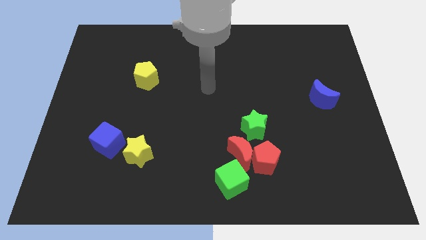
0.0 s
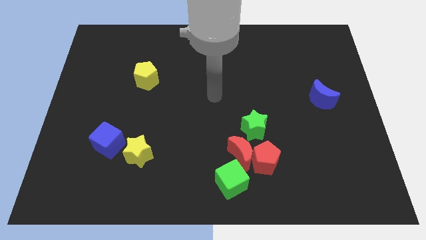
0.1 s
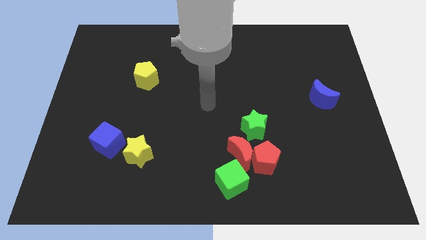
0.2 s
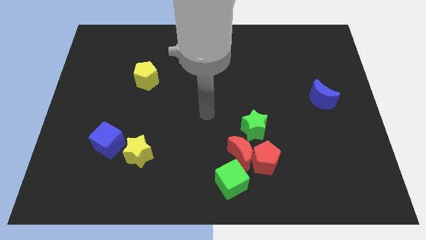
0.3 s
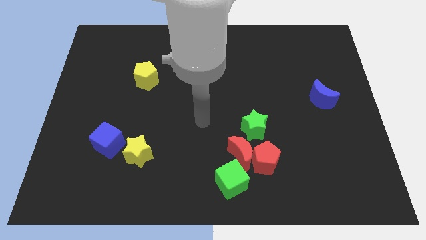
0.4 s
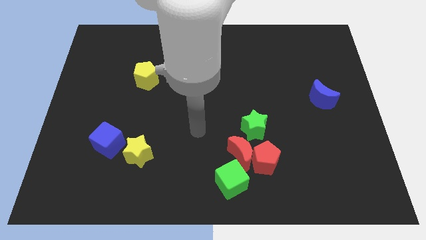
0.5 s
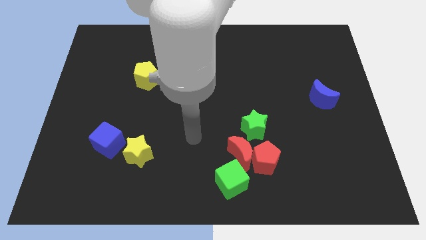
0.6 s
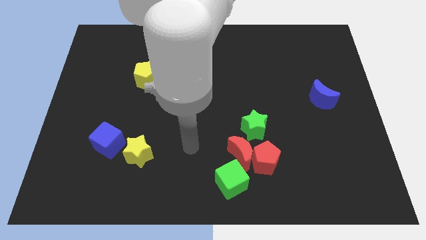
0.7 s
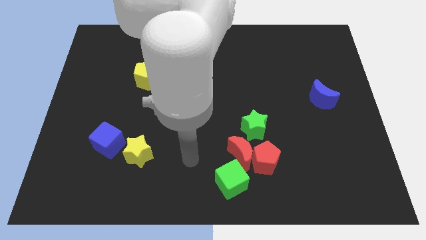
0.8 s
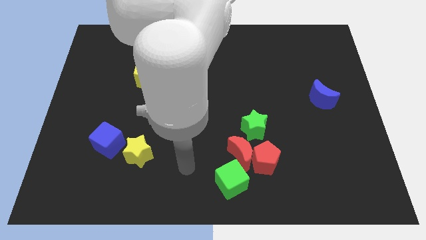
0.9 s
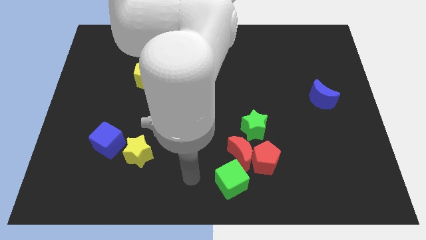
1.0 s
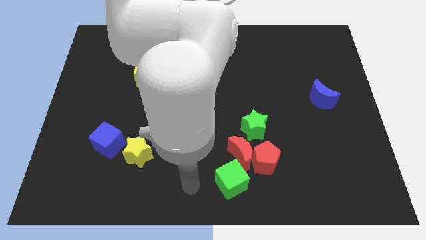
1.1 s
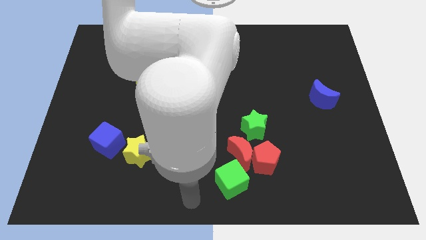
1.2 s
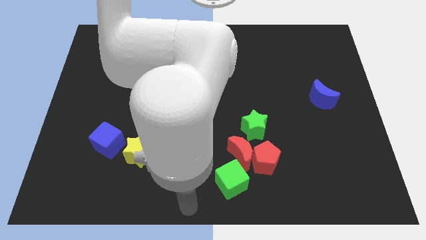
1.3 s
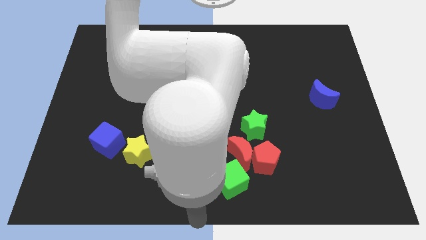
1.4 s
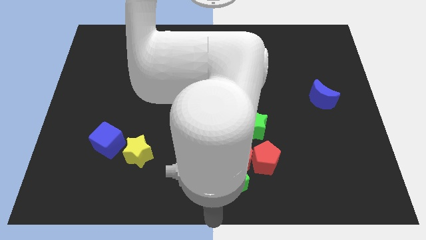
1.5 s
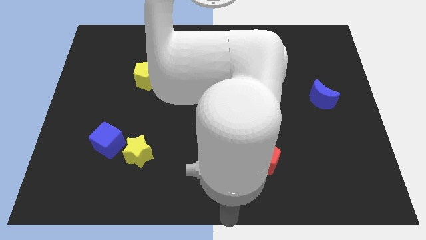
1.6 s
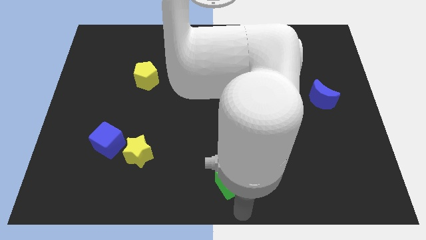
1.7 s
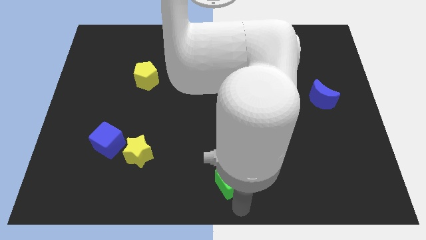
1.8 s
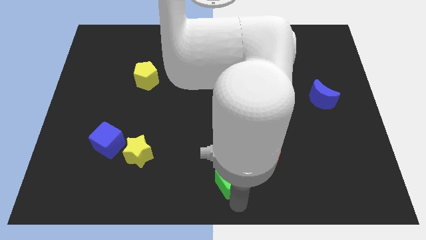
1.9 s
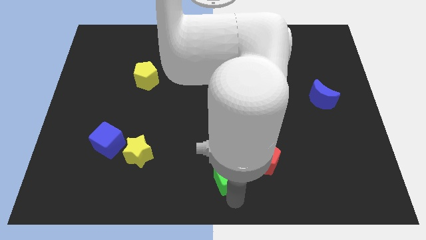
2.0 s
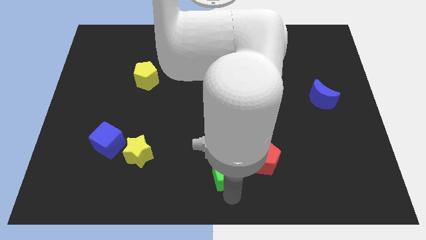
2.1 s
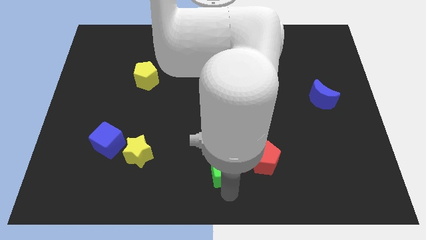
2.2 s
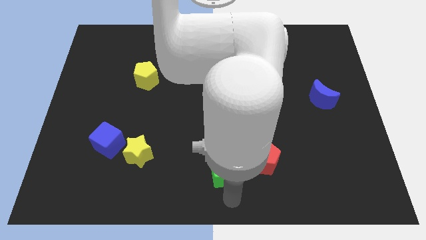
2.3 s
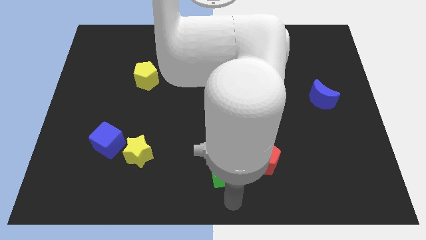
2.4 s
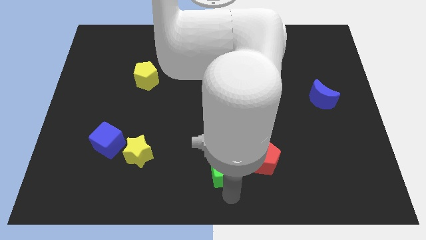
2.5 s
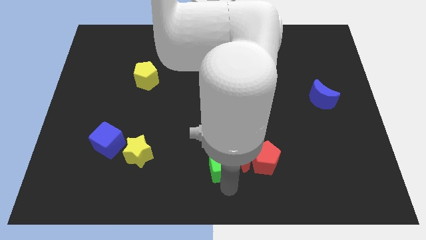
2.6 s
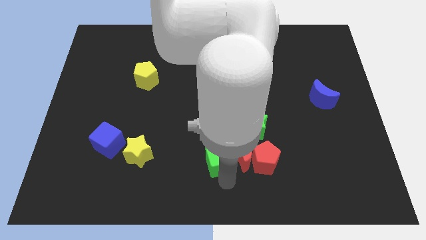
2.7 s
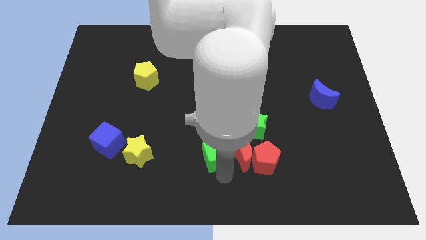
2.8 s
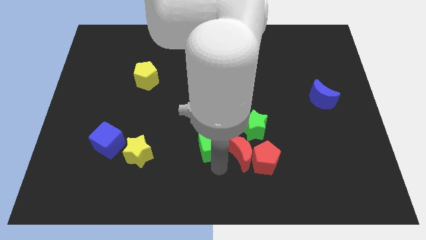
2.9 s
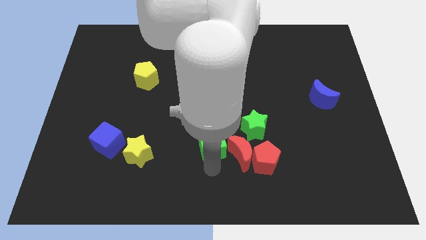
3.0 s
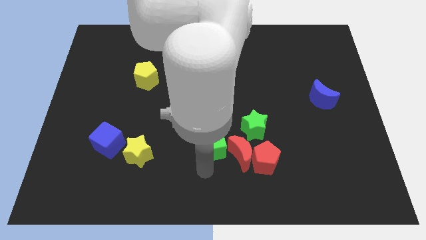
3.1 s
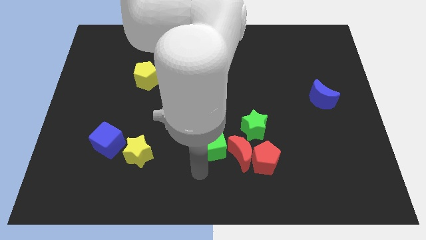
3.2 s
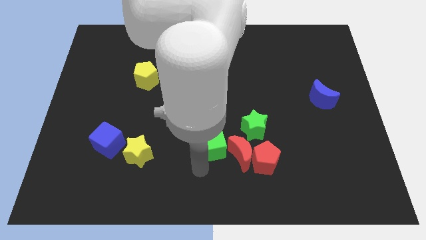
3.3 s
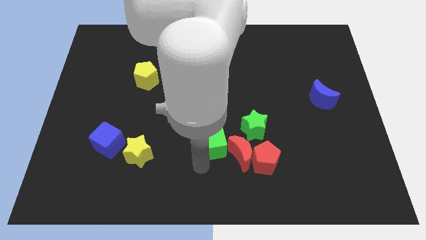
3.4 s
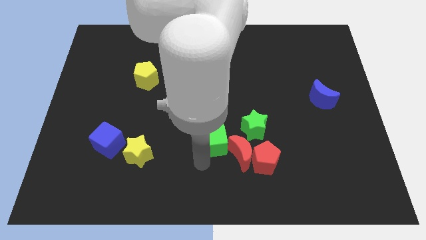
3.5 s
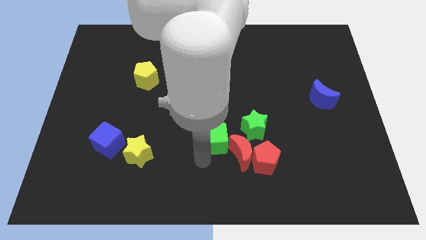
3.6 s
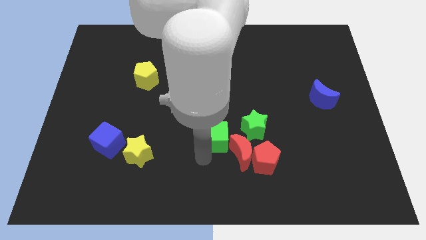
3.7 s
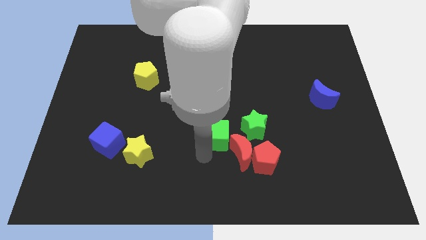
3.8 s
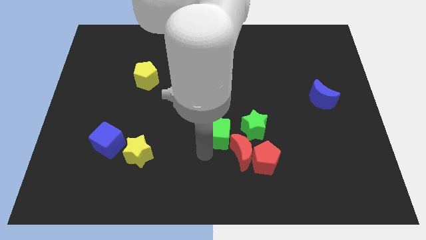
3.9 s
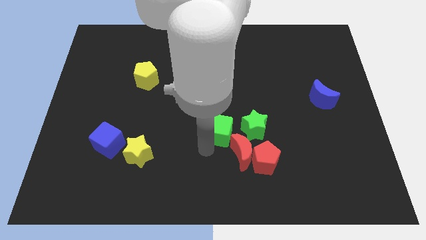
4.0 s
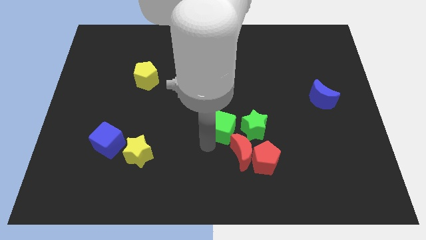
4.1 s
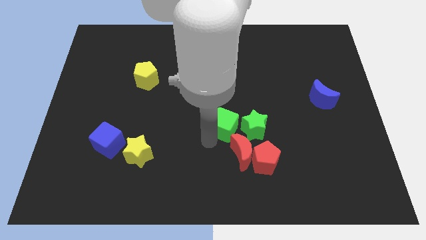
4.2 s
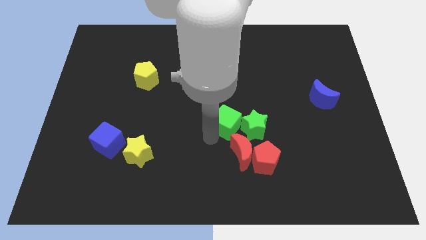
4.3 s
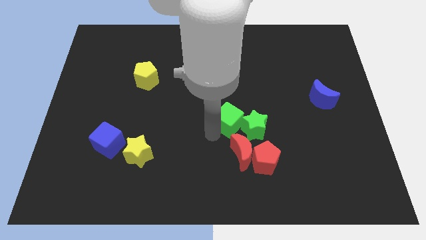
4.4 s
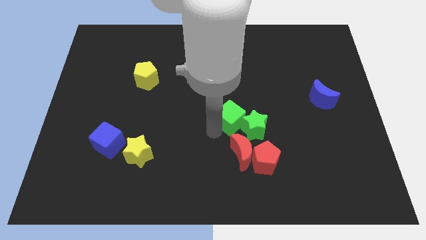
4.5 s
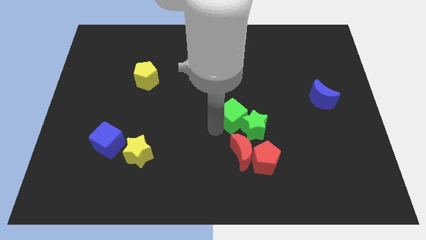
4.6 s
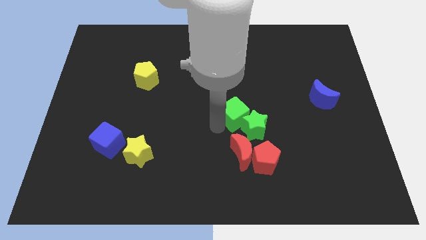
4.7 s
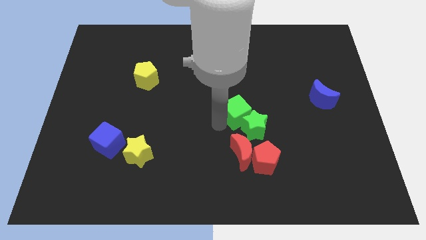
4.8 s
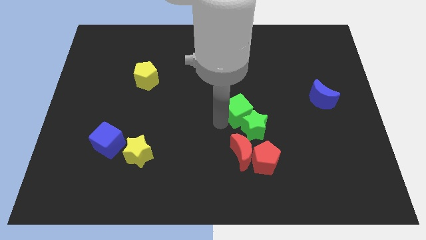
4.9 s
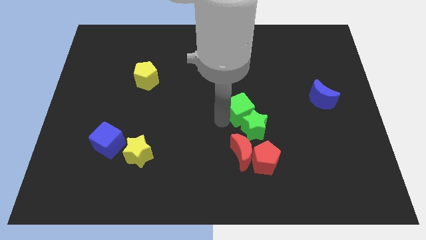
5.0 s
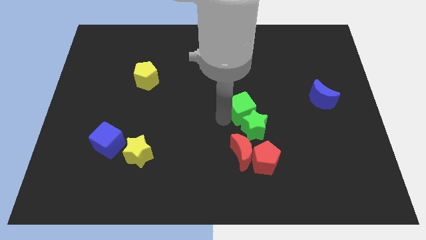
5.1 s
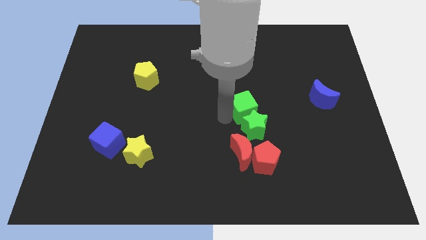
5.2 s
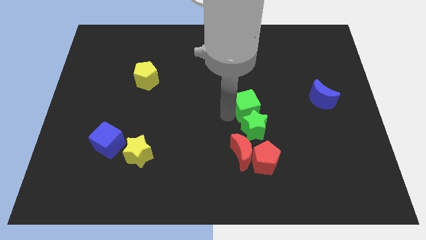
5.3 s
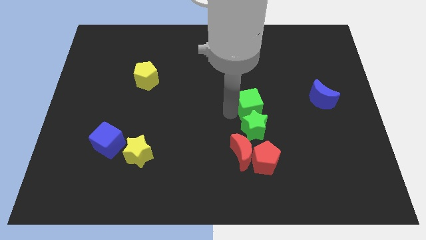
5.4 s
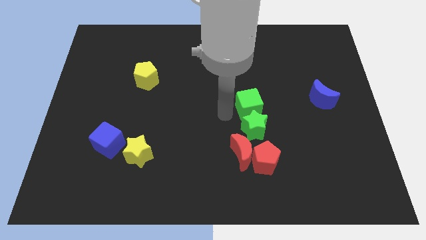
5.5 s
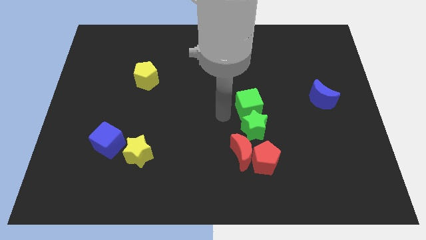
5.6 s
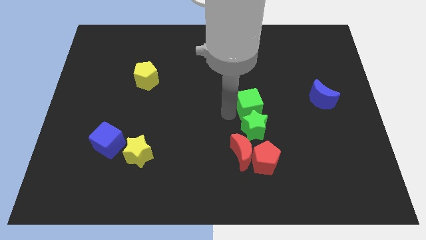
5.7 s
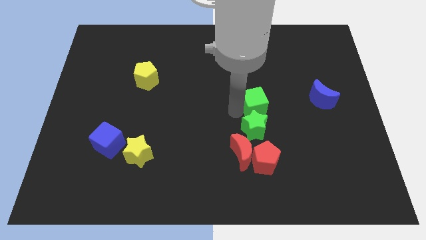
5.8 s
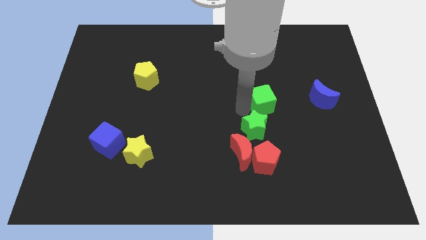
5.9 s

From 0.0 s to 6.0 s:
put the green cube to the left of the blue moon

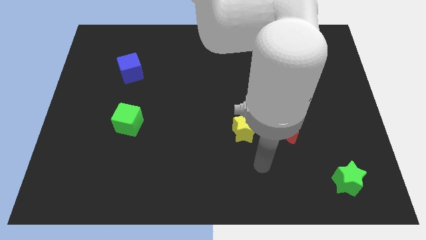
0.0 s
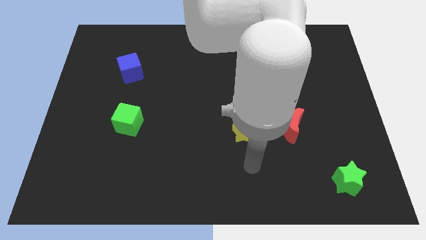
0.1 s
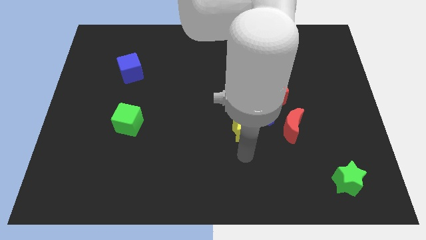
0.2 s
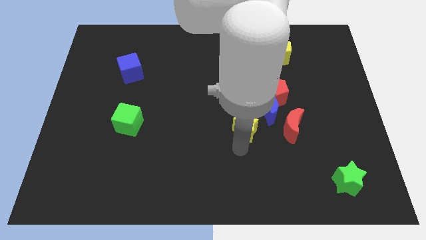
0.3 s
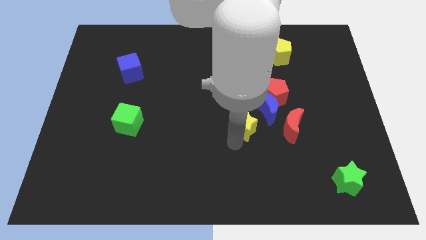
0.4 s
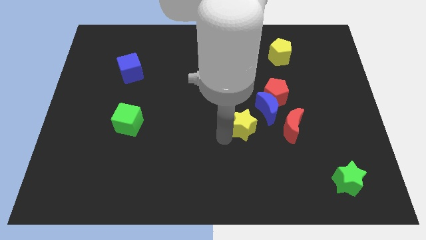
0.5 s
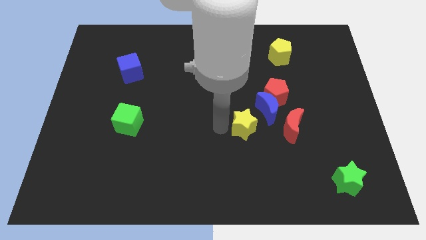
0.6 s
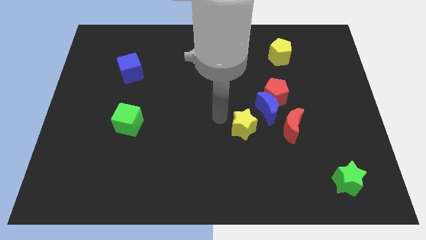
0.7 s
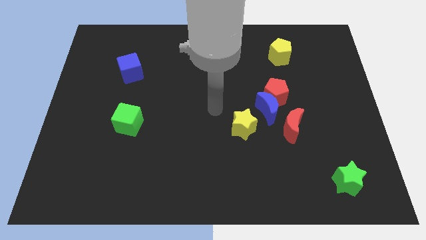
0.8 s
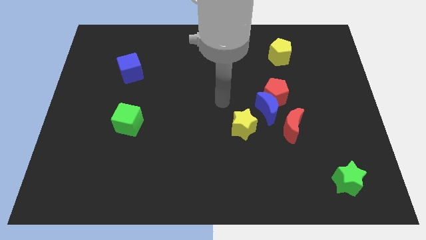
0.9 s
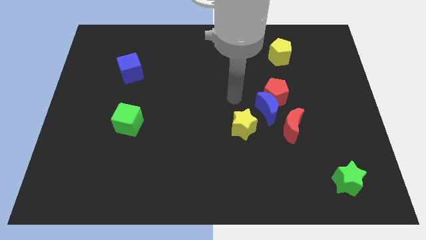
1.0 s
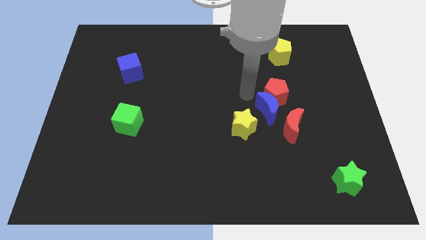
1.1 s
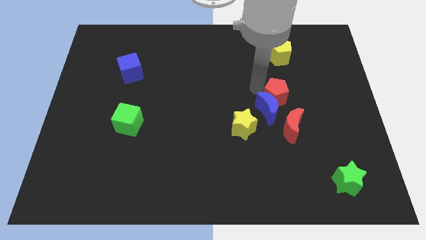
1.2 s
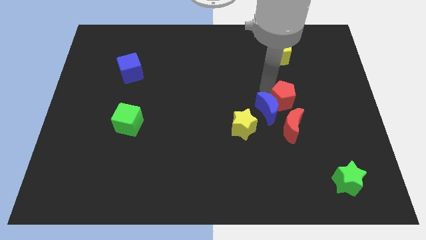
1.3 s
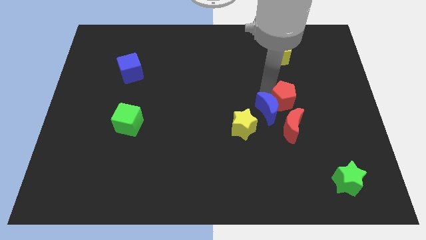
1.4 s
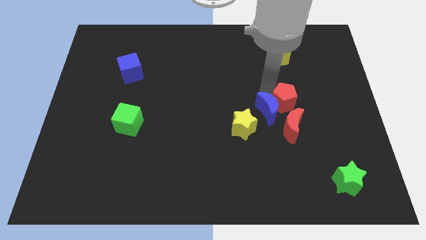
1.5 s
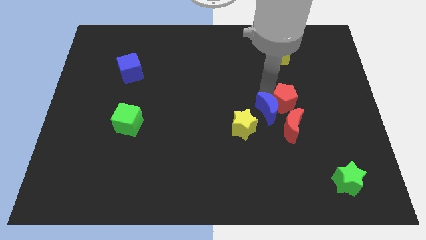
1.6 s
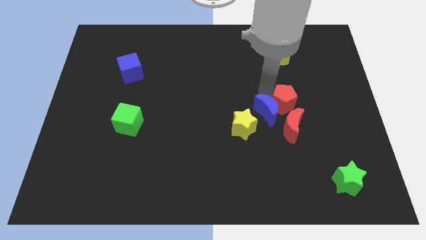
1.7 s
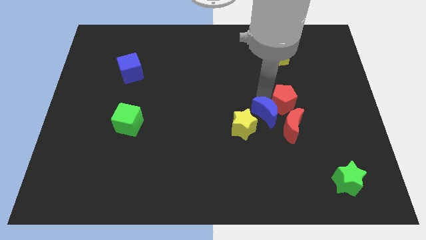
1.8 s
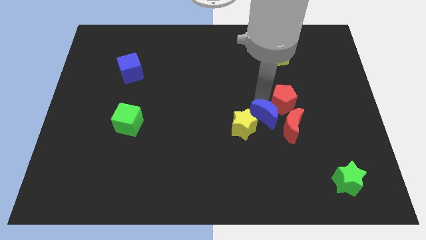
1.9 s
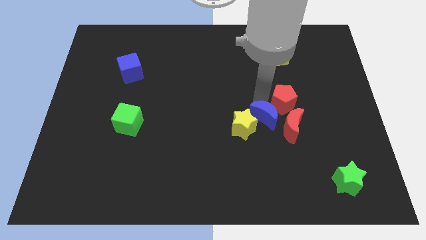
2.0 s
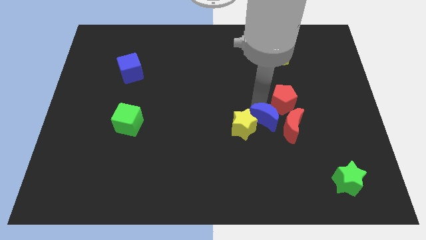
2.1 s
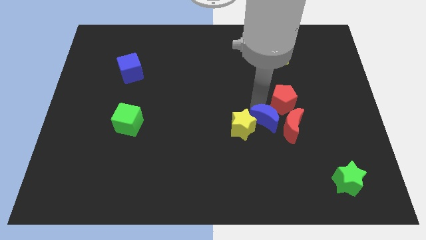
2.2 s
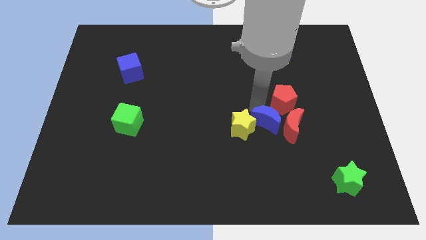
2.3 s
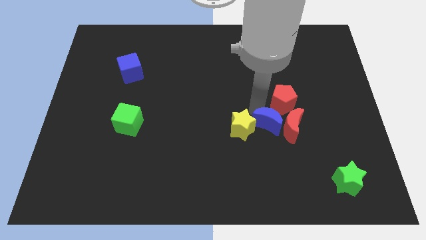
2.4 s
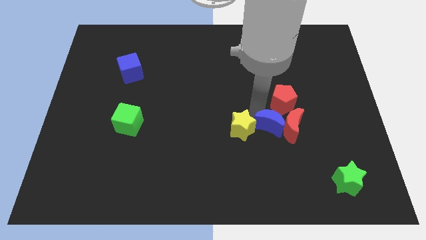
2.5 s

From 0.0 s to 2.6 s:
push the blue moon diagonally down and to the right of the yellow star
